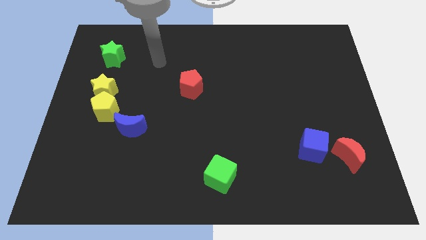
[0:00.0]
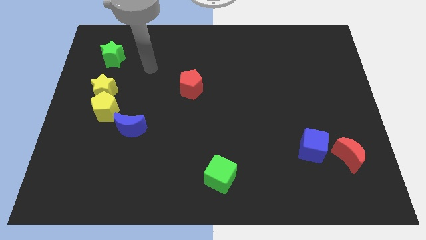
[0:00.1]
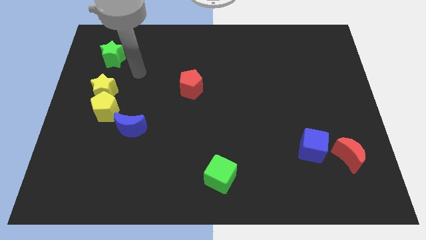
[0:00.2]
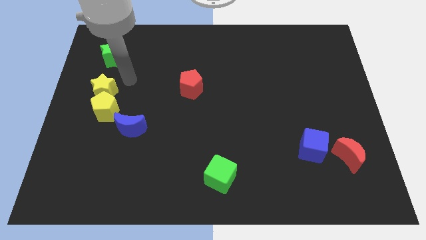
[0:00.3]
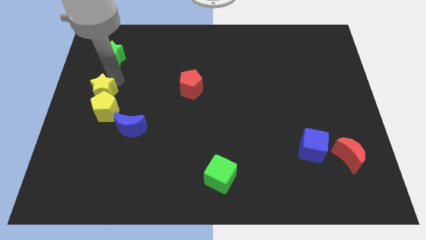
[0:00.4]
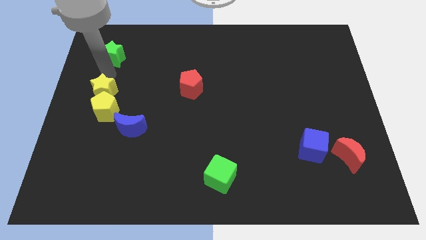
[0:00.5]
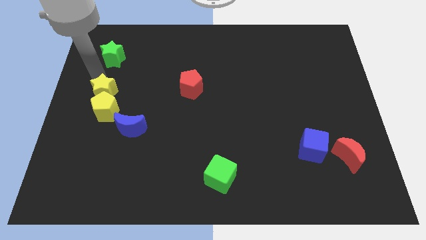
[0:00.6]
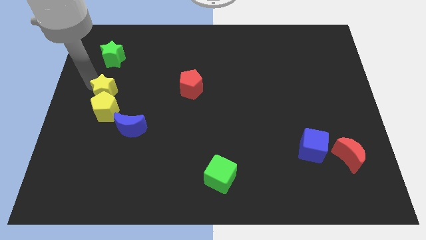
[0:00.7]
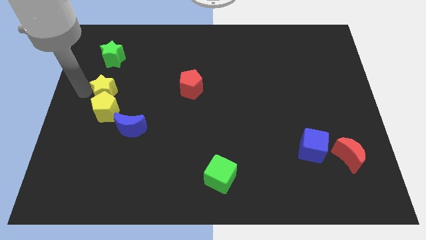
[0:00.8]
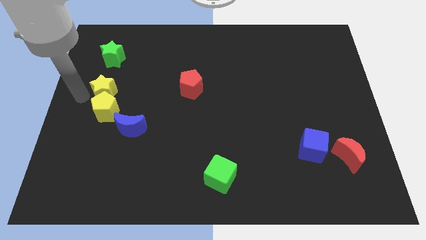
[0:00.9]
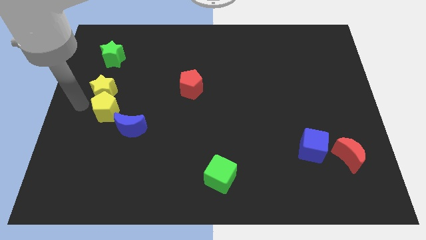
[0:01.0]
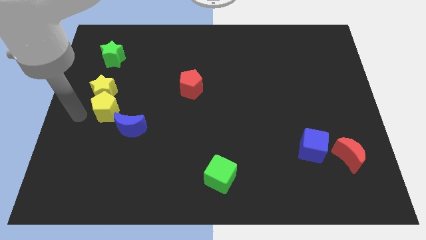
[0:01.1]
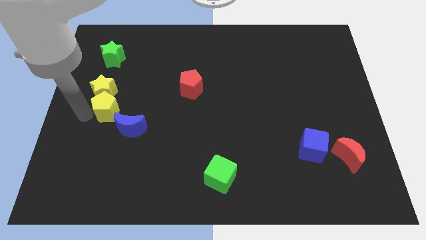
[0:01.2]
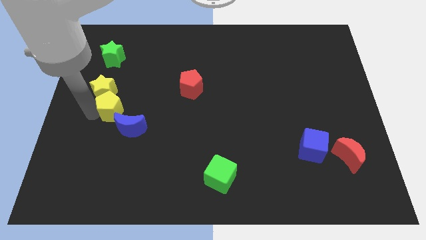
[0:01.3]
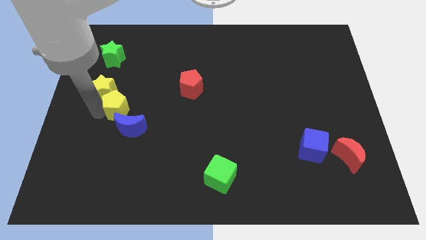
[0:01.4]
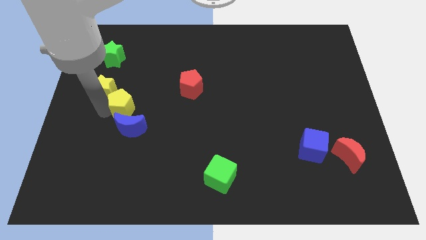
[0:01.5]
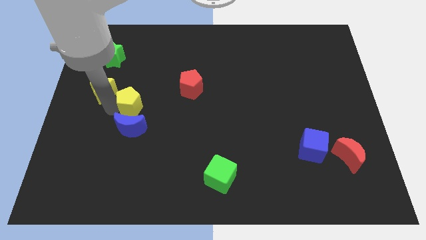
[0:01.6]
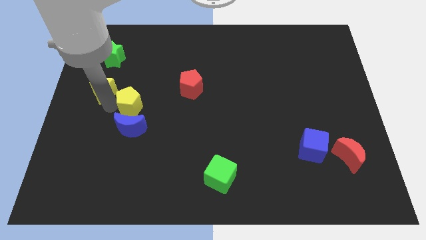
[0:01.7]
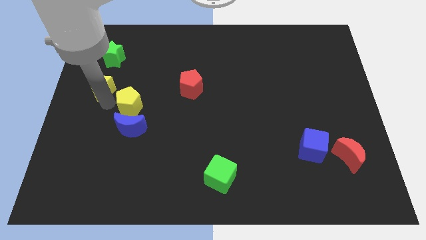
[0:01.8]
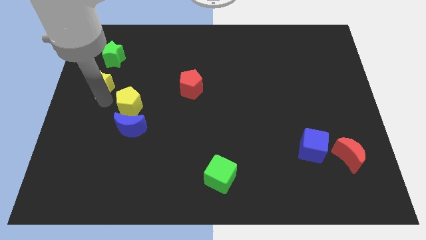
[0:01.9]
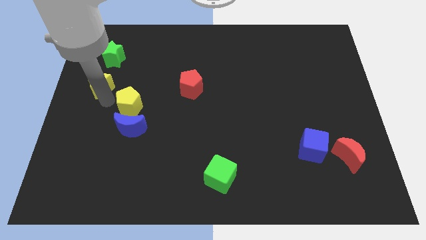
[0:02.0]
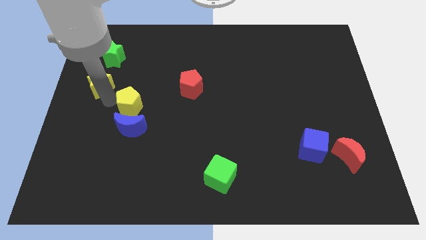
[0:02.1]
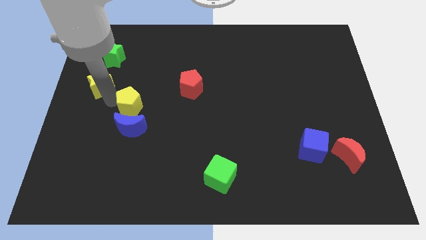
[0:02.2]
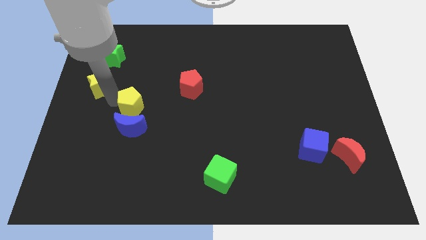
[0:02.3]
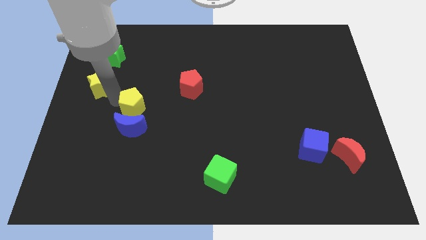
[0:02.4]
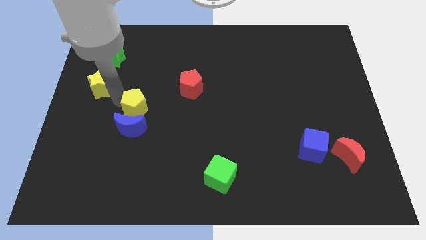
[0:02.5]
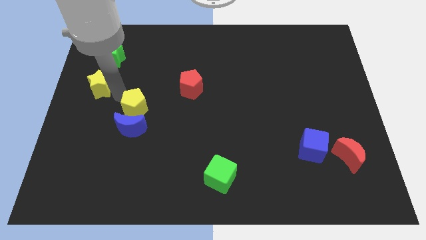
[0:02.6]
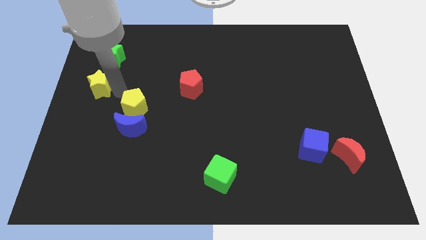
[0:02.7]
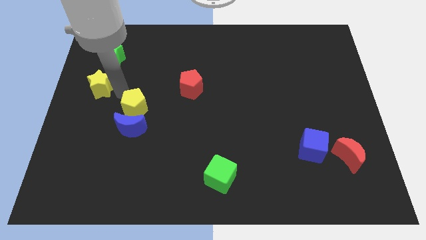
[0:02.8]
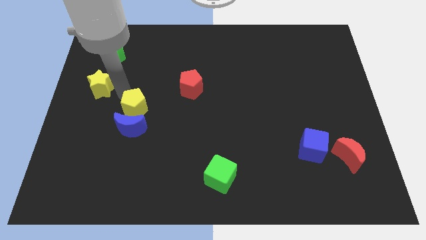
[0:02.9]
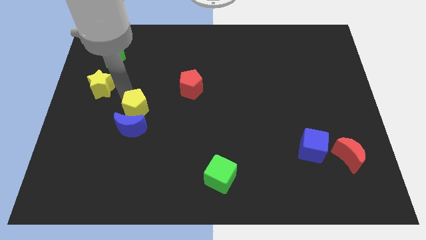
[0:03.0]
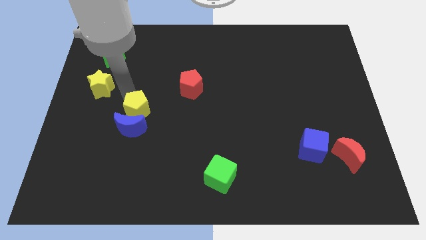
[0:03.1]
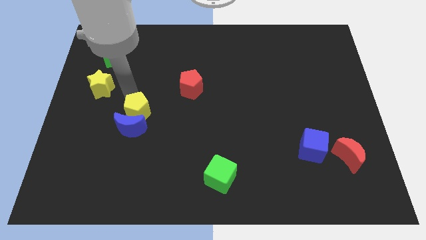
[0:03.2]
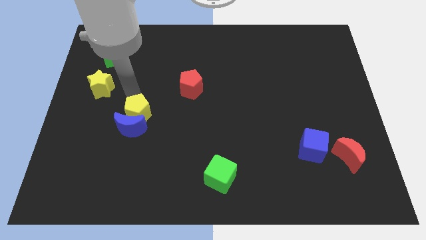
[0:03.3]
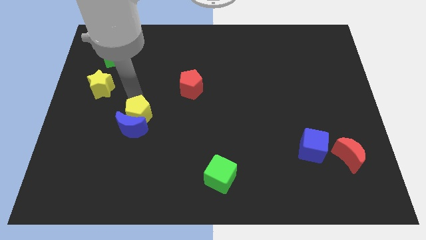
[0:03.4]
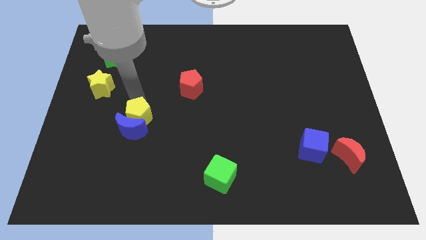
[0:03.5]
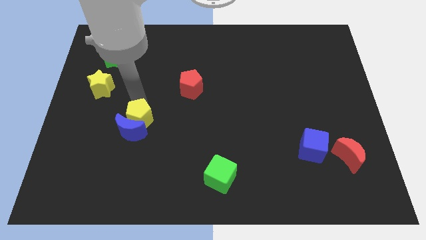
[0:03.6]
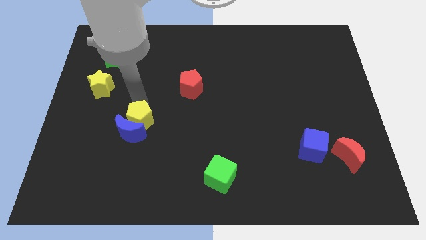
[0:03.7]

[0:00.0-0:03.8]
push the yellow pentagon a bit down and to the right

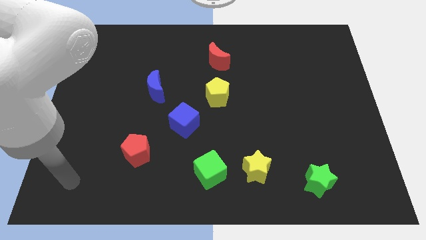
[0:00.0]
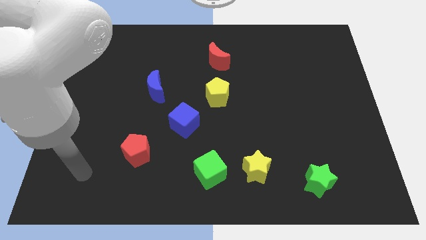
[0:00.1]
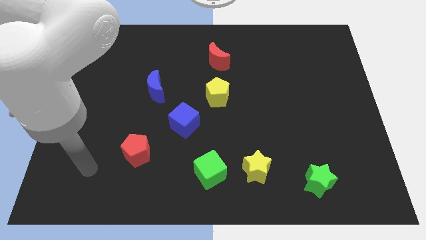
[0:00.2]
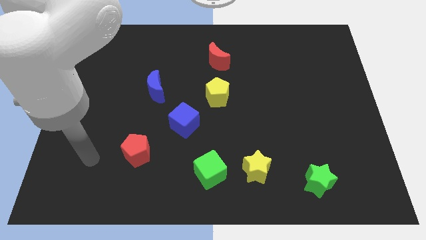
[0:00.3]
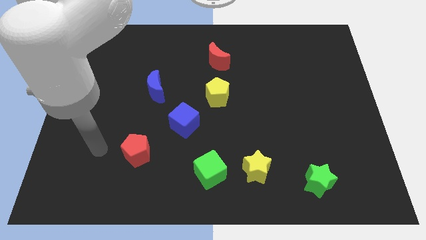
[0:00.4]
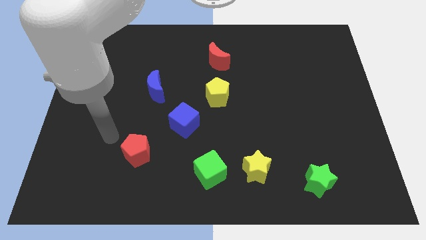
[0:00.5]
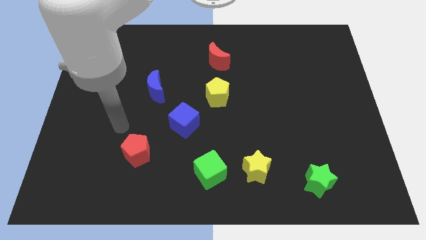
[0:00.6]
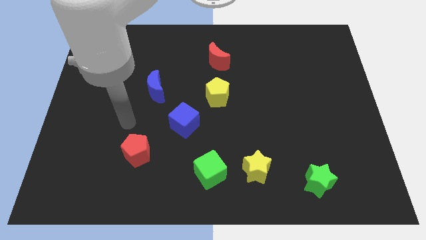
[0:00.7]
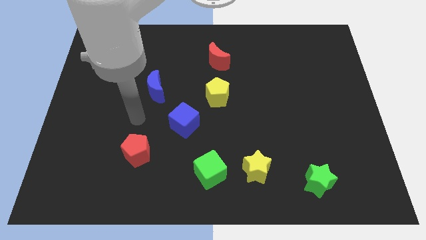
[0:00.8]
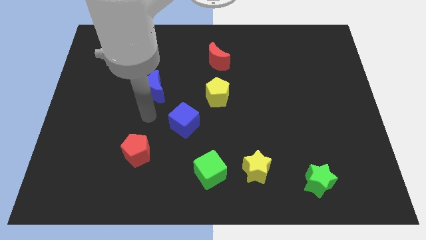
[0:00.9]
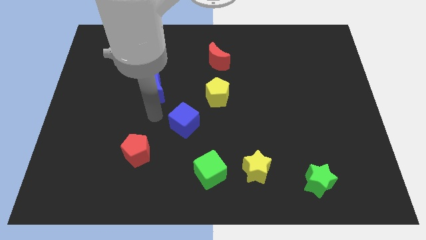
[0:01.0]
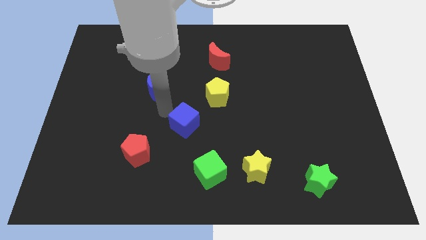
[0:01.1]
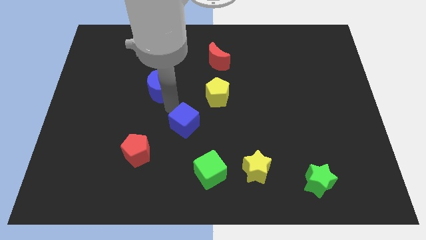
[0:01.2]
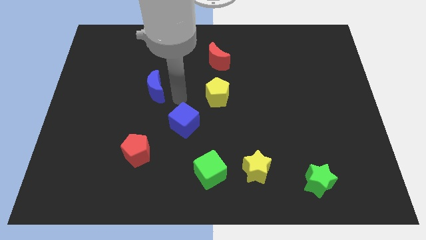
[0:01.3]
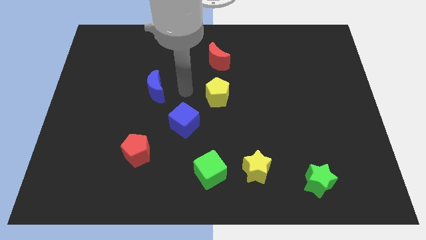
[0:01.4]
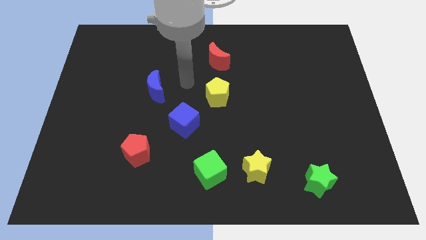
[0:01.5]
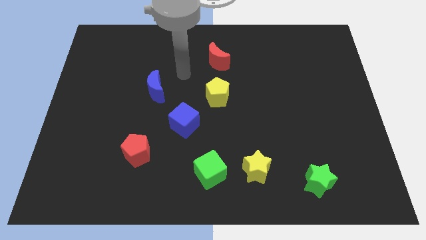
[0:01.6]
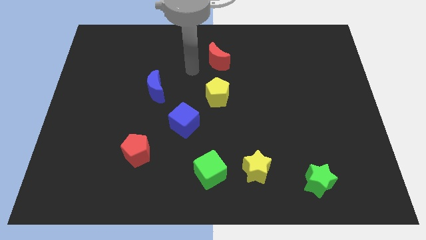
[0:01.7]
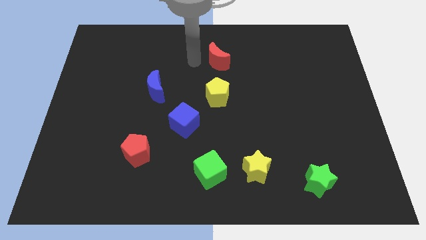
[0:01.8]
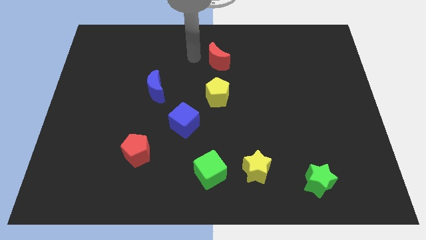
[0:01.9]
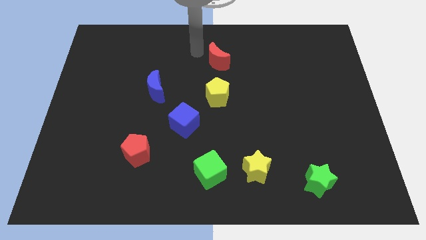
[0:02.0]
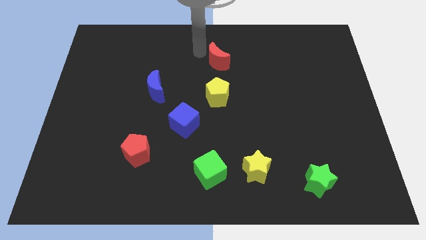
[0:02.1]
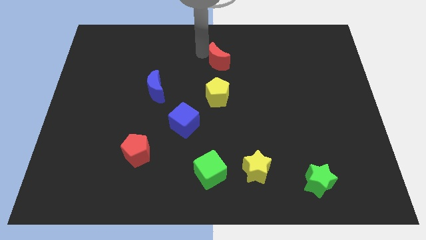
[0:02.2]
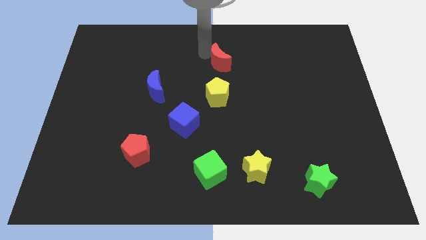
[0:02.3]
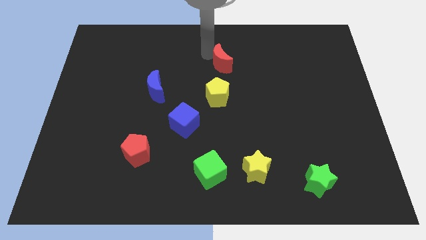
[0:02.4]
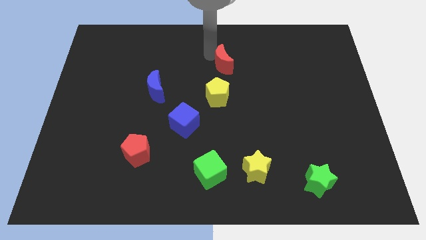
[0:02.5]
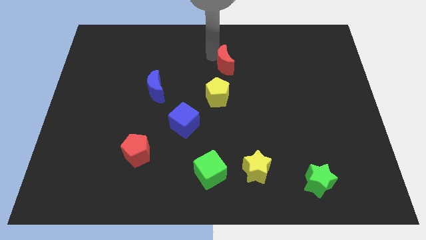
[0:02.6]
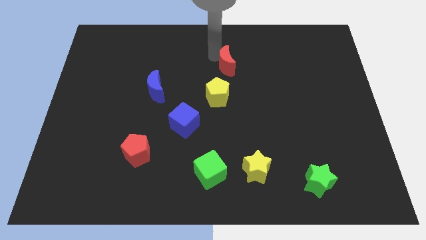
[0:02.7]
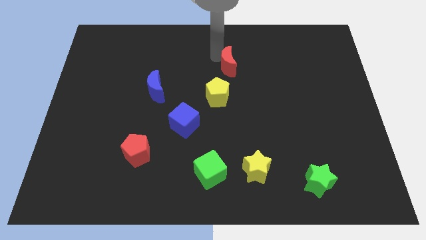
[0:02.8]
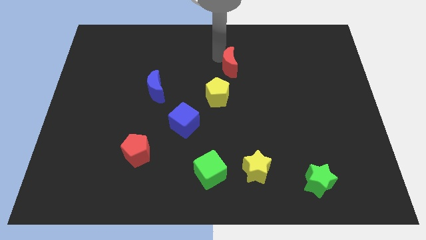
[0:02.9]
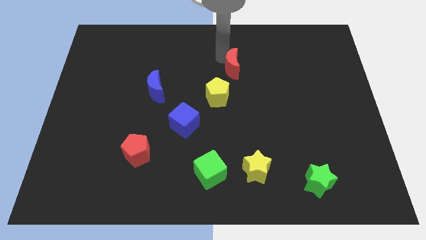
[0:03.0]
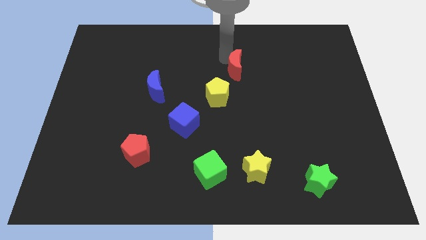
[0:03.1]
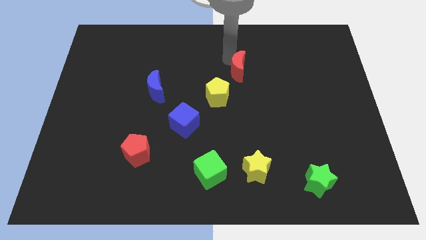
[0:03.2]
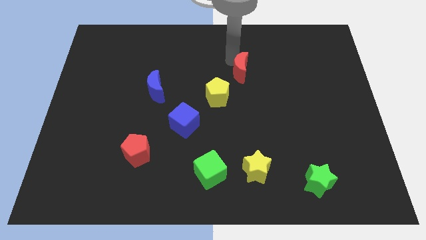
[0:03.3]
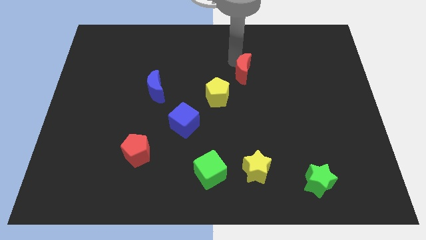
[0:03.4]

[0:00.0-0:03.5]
slightly slide the red moon downwards and then right

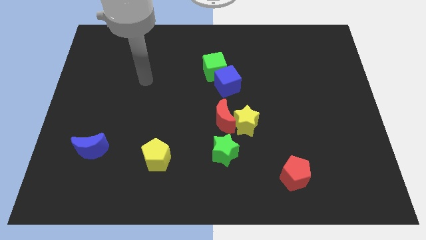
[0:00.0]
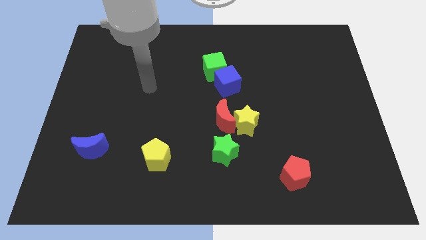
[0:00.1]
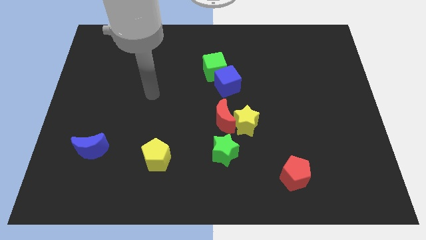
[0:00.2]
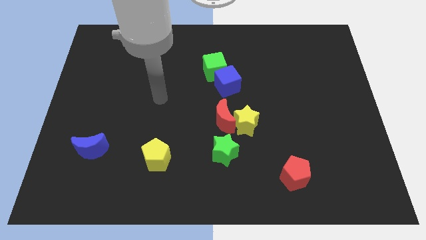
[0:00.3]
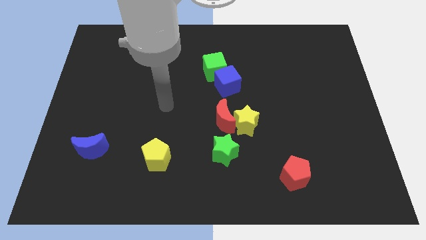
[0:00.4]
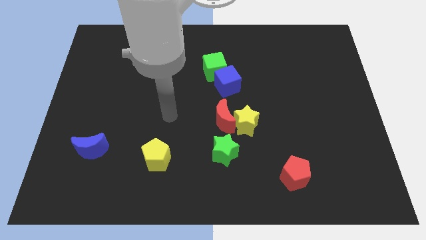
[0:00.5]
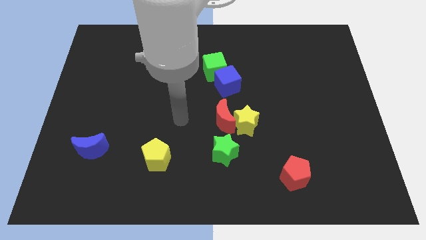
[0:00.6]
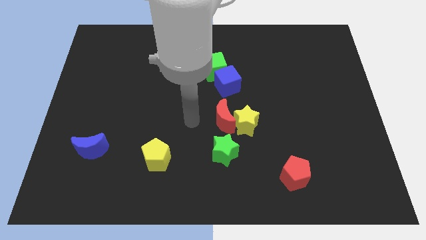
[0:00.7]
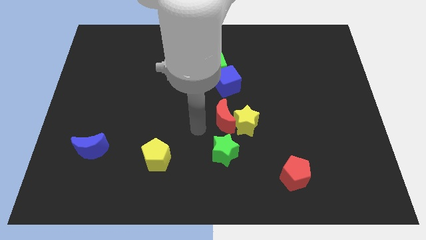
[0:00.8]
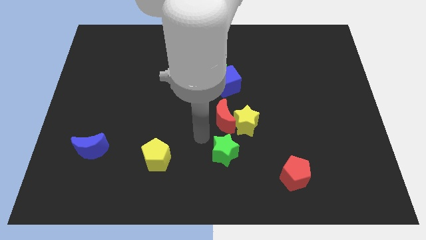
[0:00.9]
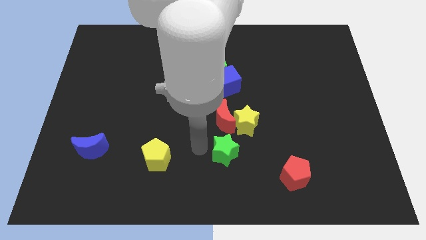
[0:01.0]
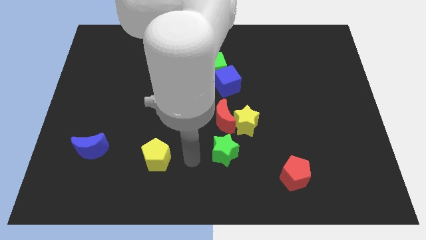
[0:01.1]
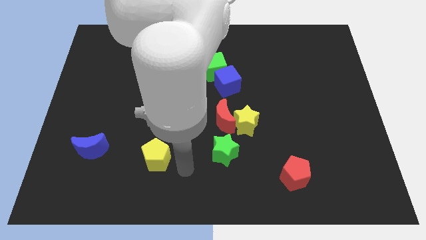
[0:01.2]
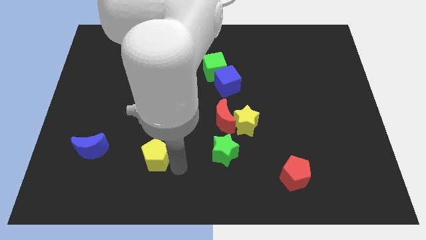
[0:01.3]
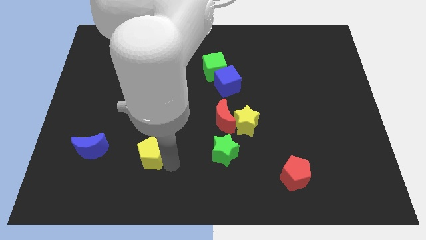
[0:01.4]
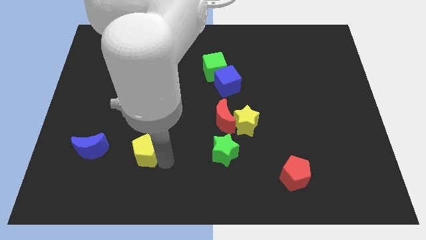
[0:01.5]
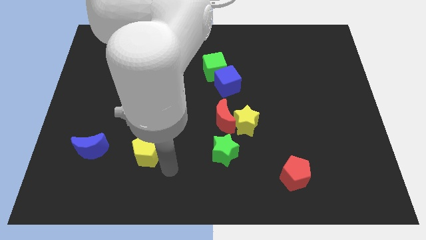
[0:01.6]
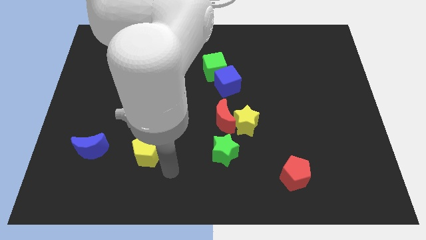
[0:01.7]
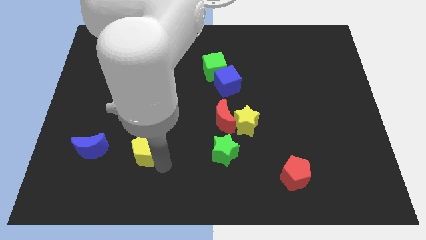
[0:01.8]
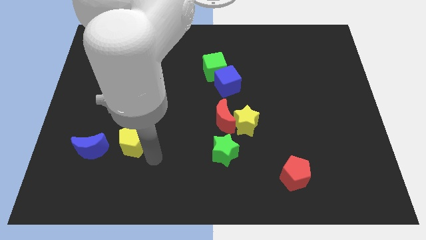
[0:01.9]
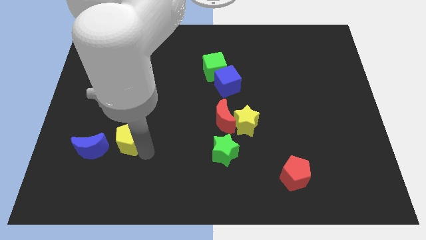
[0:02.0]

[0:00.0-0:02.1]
slightly move the yellow pentagon up and to the left diagonally
